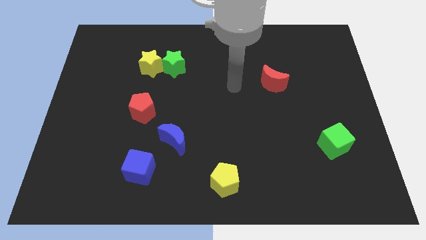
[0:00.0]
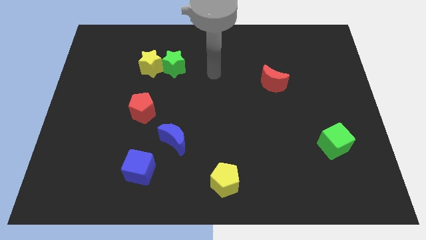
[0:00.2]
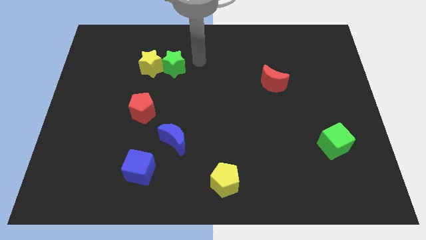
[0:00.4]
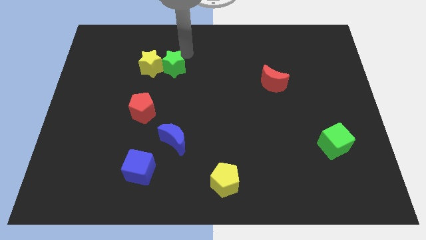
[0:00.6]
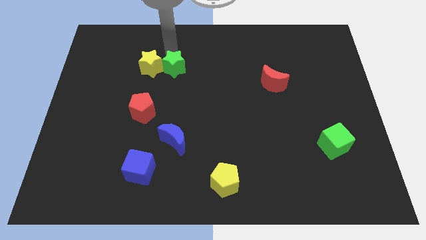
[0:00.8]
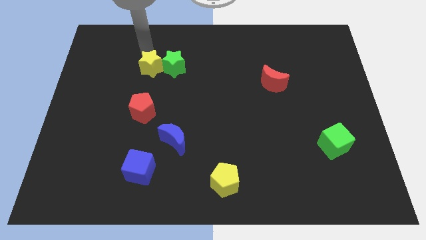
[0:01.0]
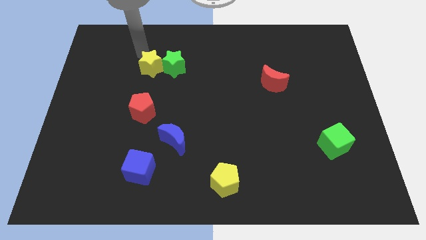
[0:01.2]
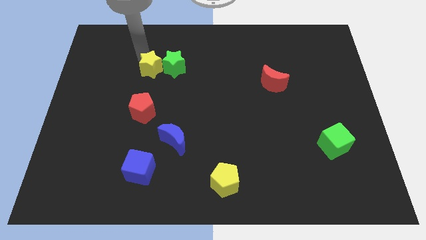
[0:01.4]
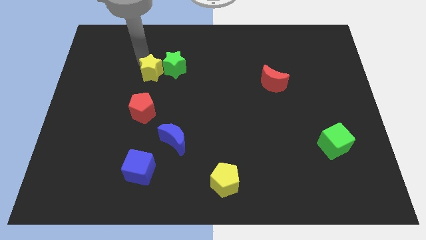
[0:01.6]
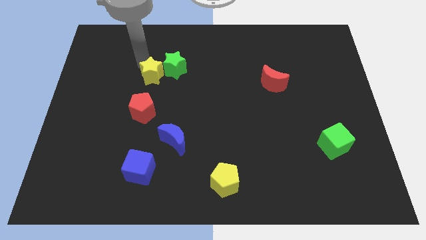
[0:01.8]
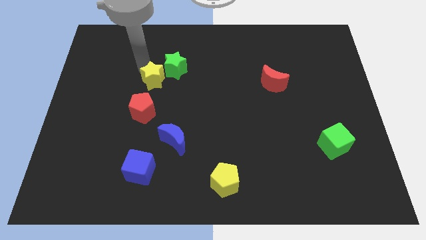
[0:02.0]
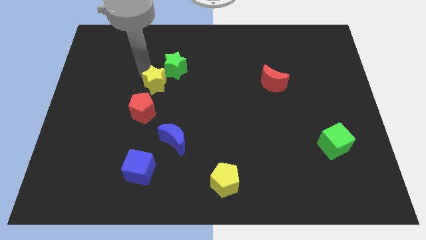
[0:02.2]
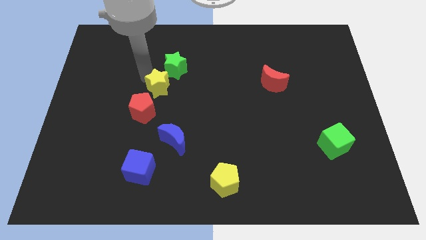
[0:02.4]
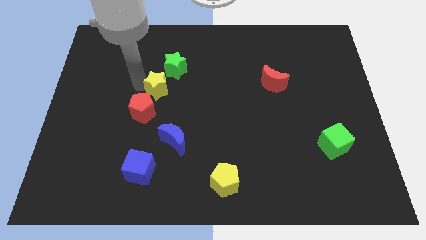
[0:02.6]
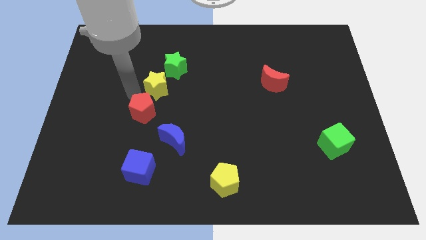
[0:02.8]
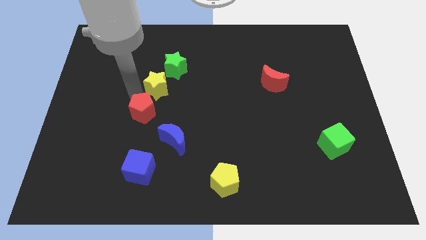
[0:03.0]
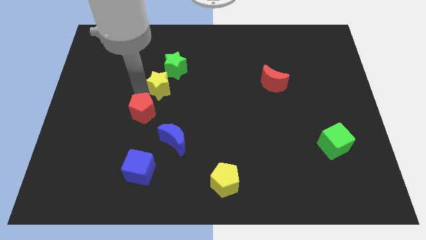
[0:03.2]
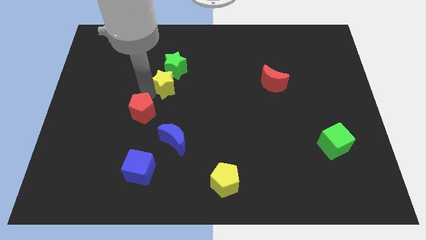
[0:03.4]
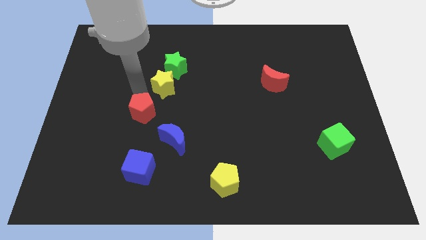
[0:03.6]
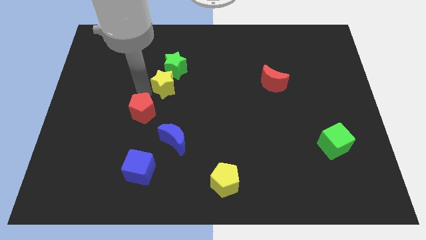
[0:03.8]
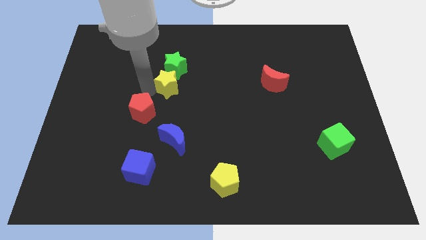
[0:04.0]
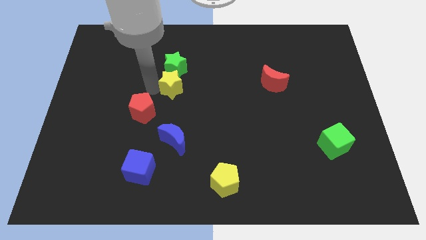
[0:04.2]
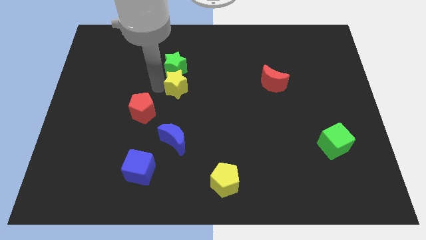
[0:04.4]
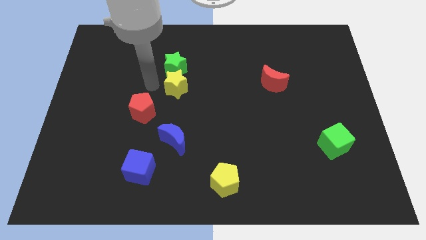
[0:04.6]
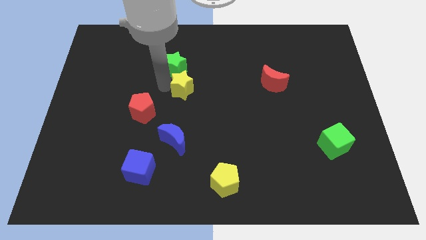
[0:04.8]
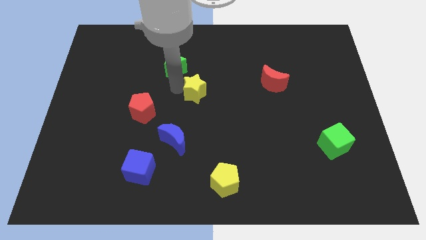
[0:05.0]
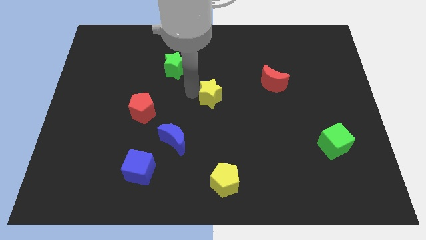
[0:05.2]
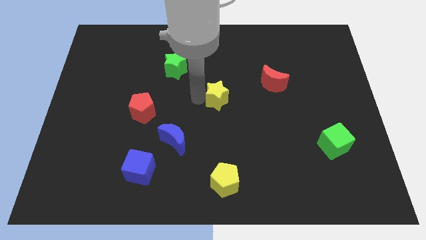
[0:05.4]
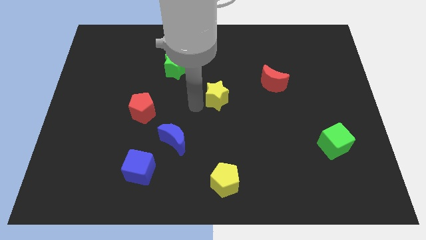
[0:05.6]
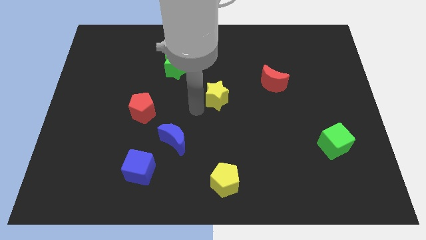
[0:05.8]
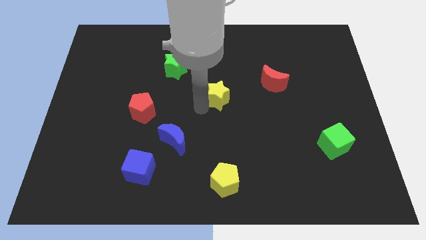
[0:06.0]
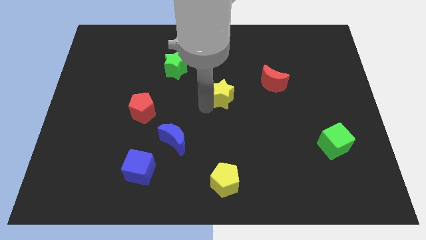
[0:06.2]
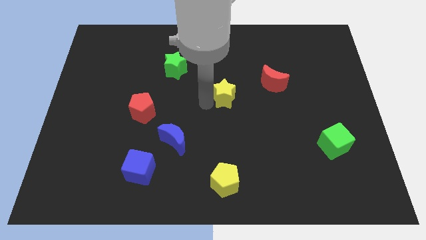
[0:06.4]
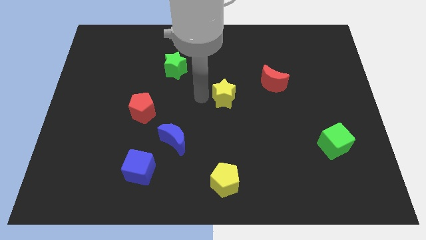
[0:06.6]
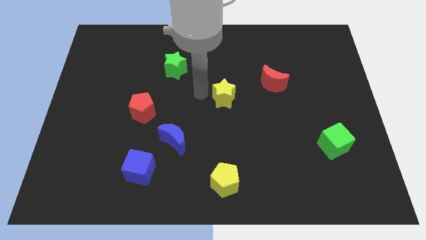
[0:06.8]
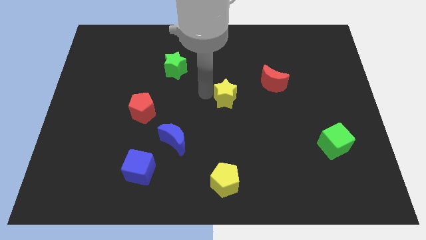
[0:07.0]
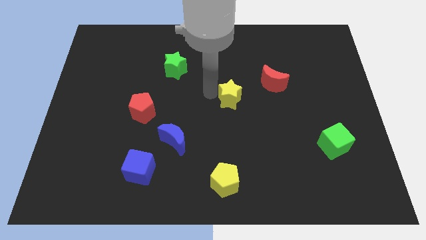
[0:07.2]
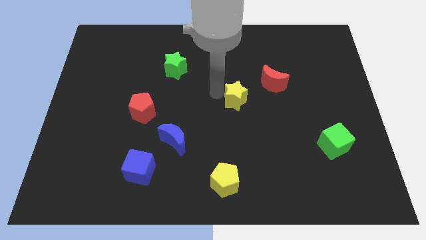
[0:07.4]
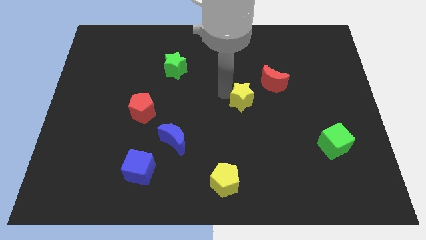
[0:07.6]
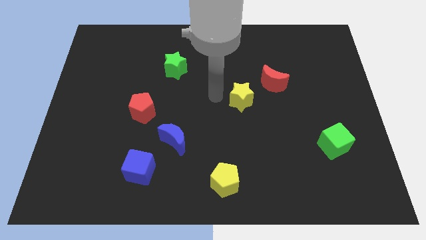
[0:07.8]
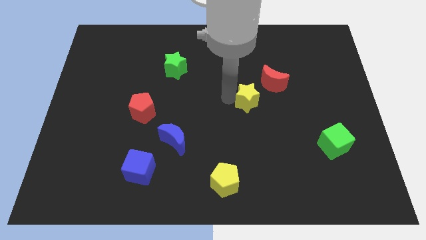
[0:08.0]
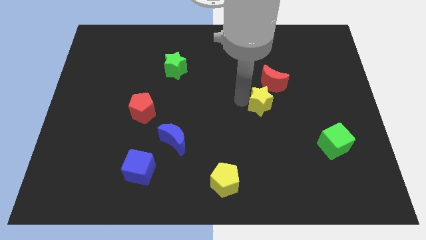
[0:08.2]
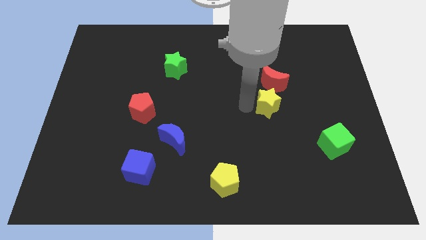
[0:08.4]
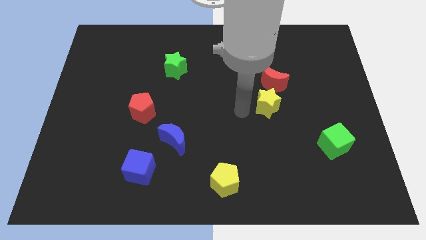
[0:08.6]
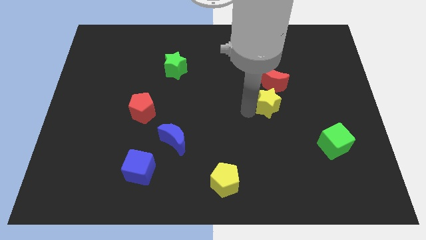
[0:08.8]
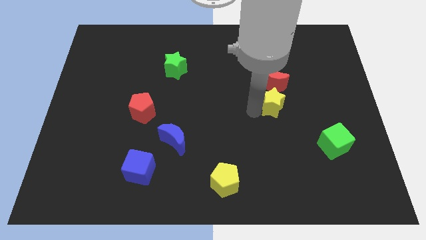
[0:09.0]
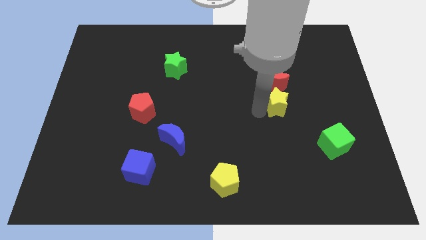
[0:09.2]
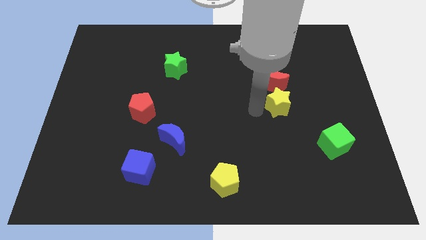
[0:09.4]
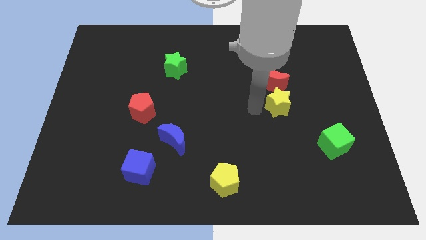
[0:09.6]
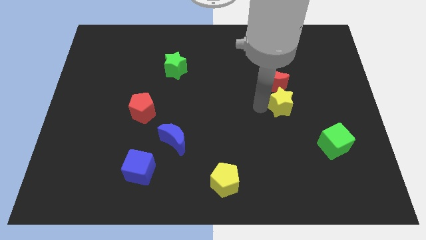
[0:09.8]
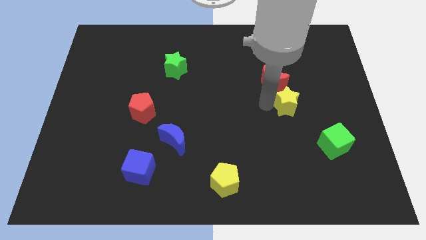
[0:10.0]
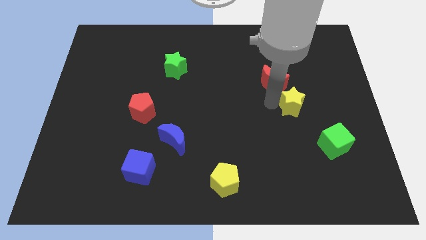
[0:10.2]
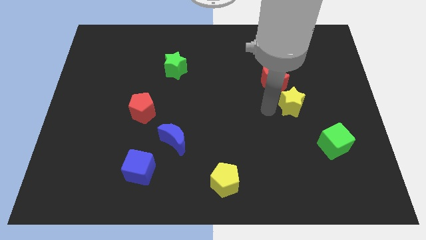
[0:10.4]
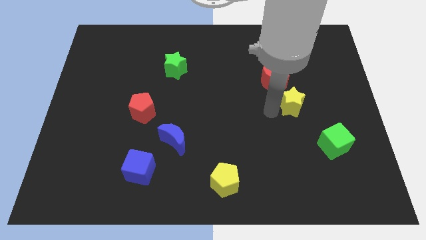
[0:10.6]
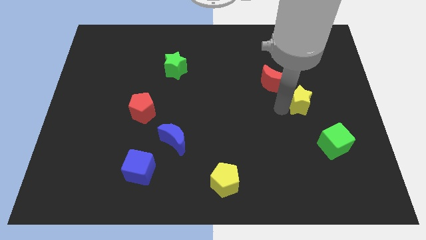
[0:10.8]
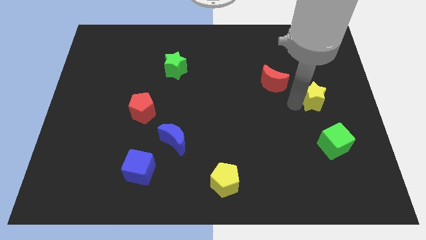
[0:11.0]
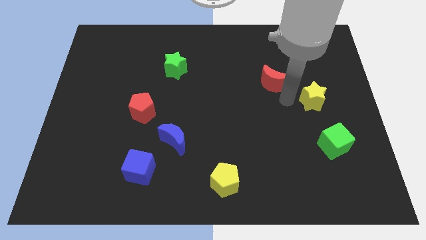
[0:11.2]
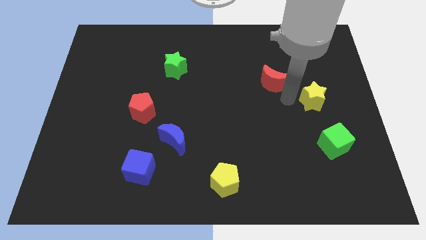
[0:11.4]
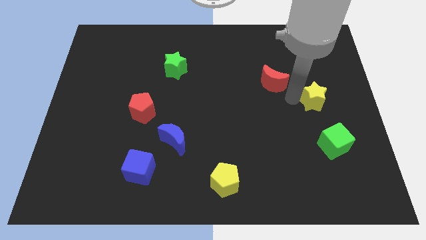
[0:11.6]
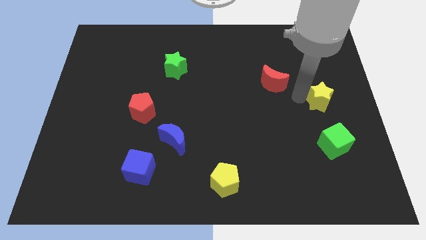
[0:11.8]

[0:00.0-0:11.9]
slide the yellow star to the right side
